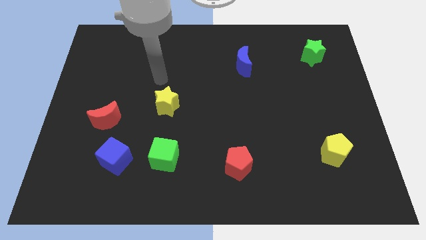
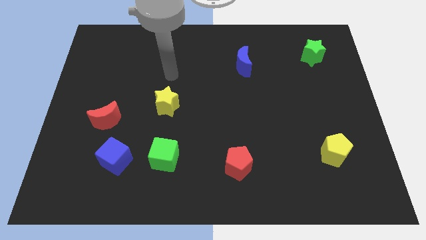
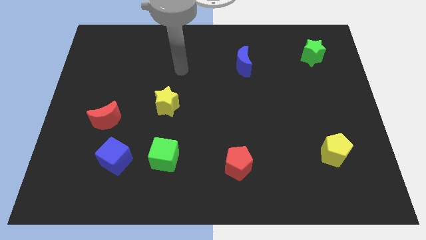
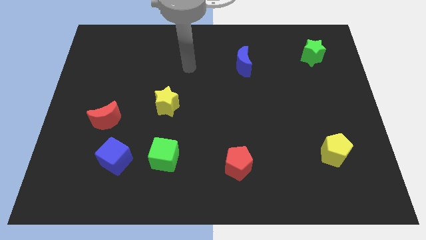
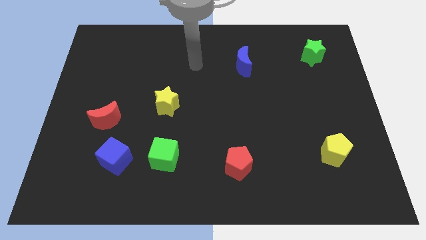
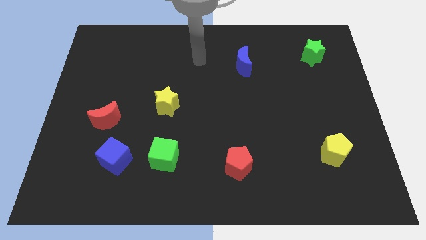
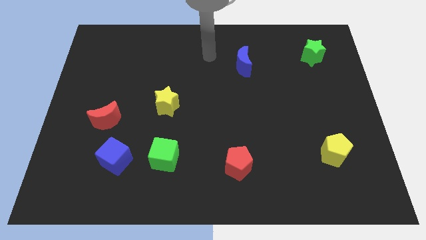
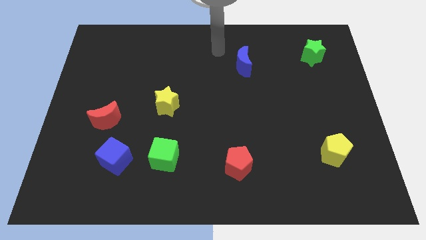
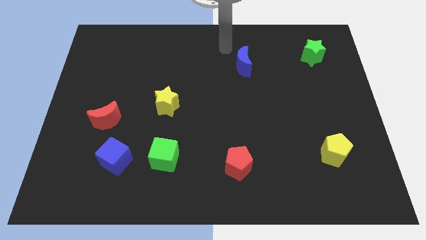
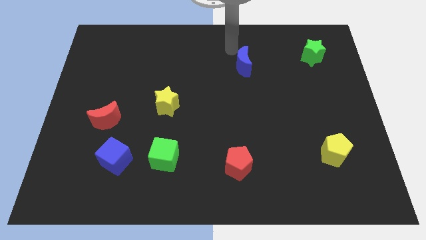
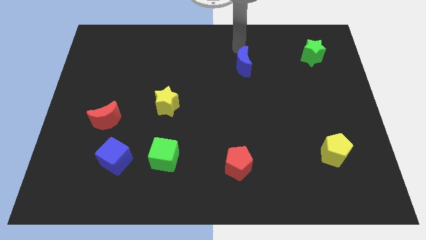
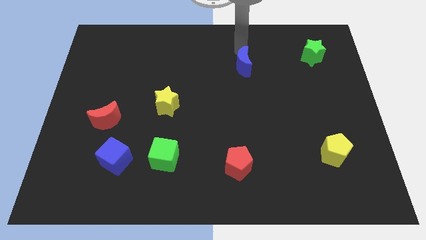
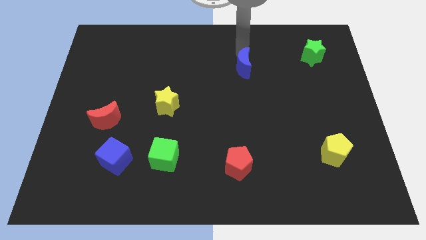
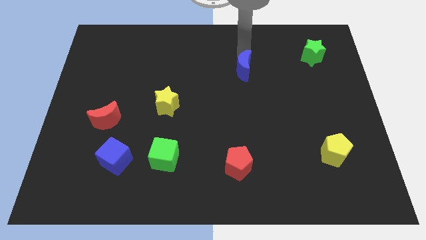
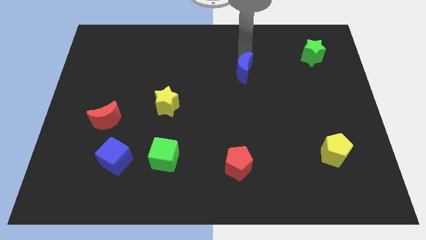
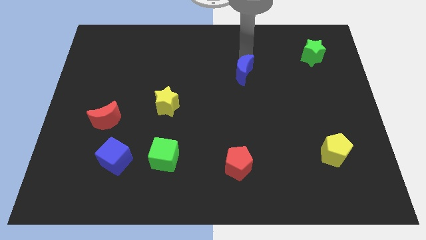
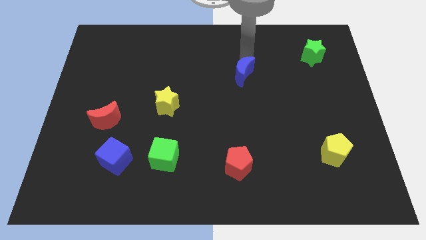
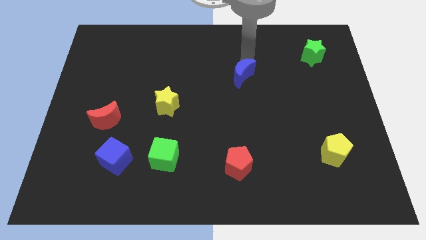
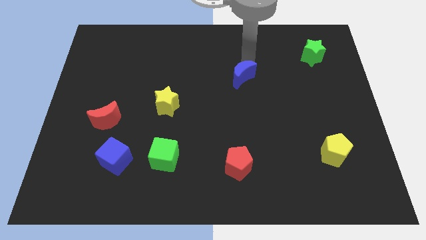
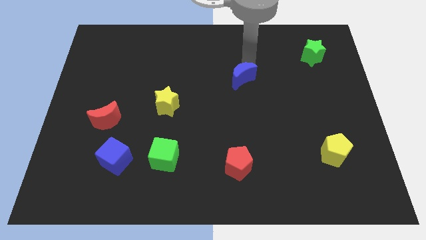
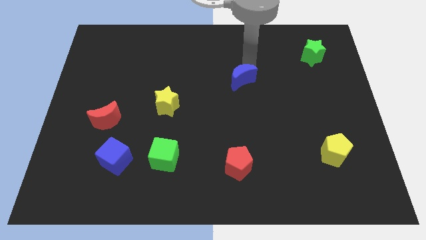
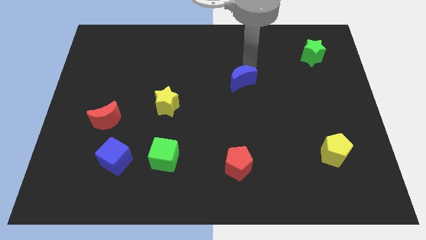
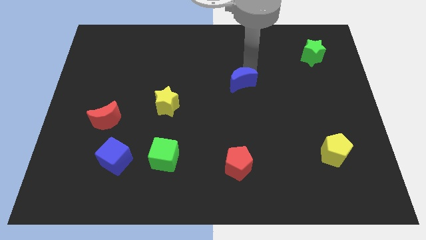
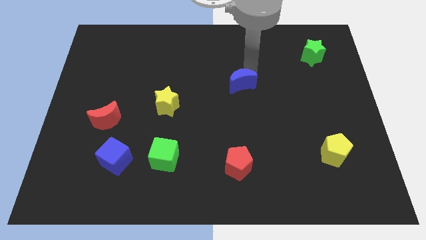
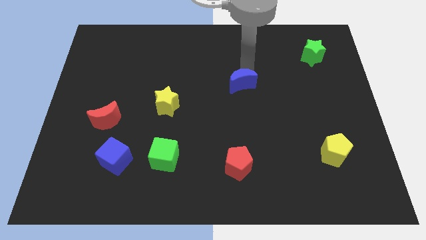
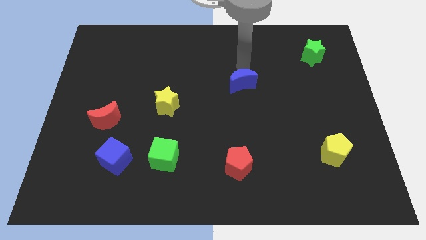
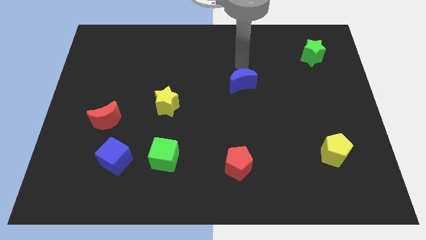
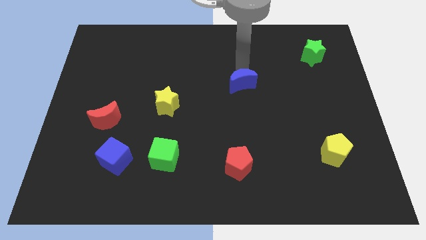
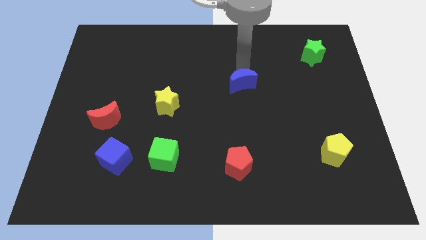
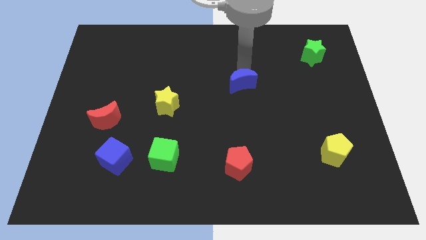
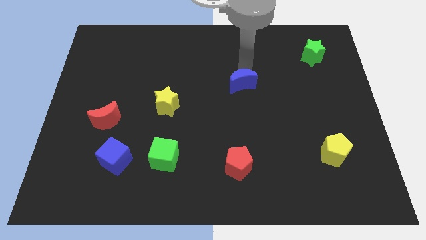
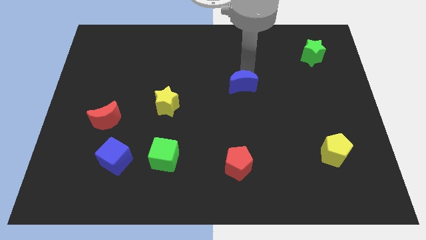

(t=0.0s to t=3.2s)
move the blue moon down somewhat

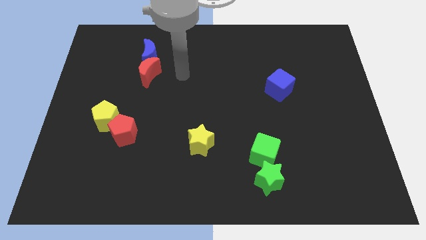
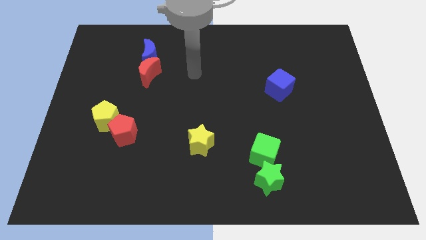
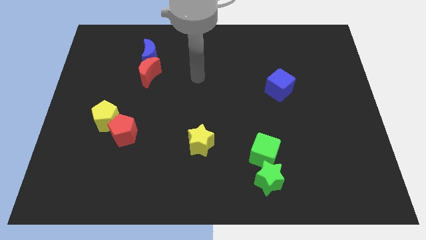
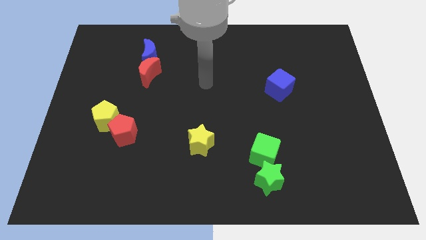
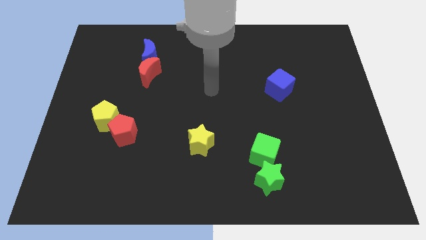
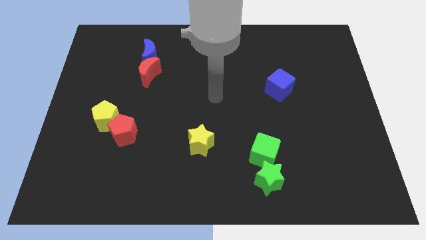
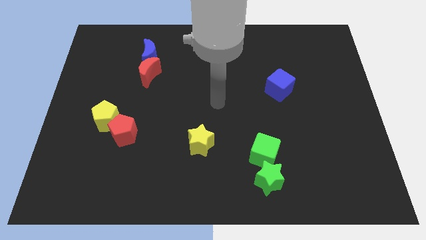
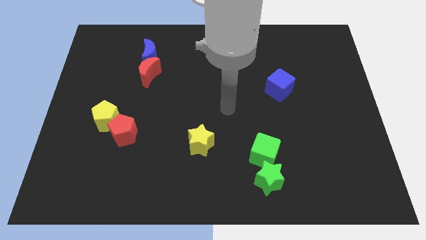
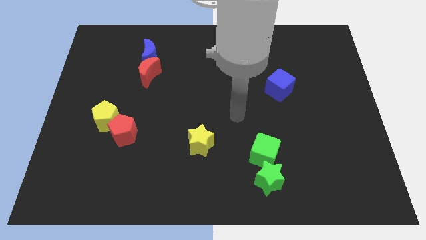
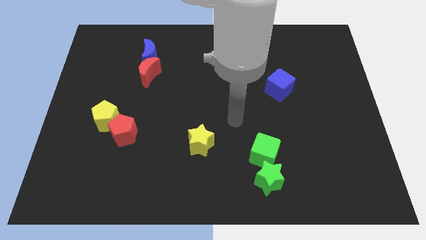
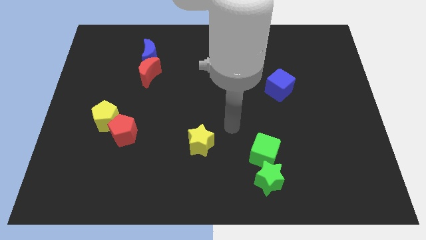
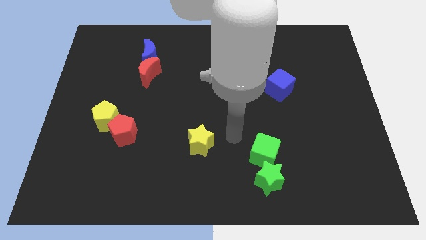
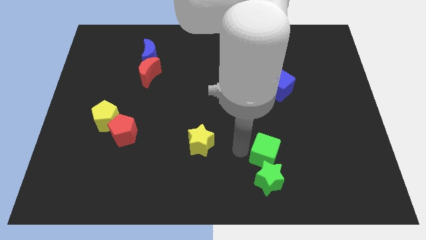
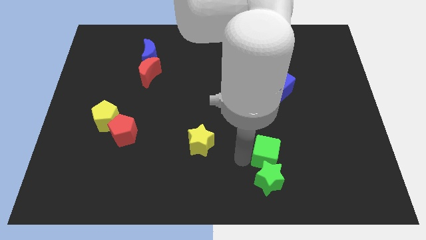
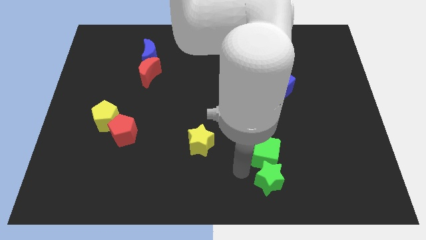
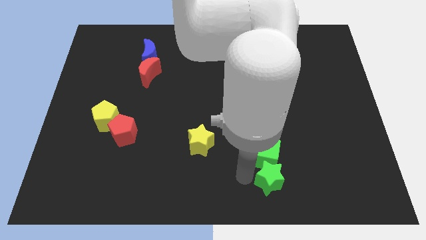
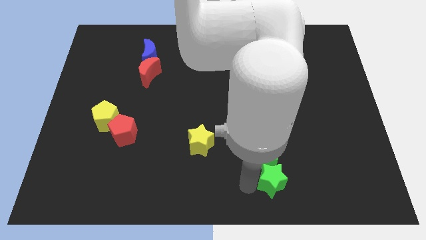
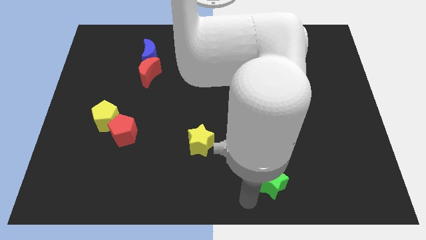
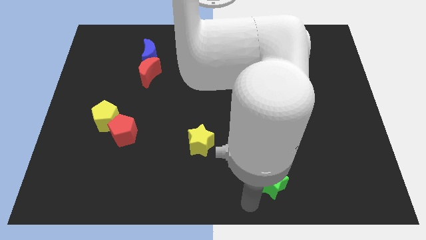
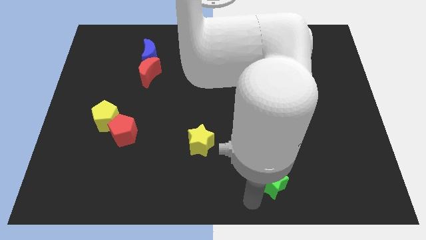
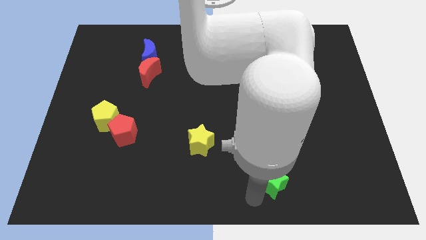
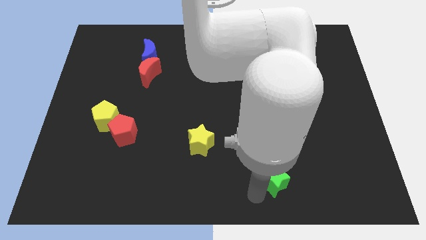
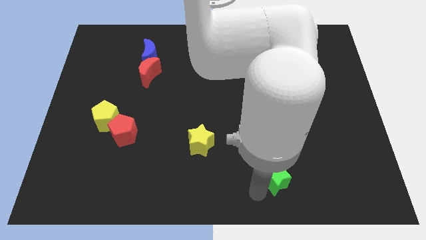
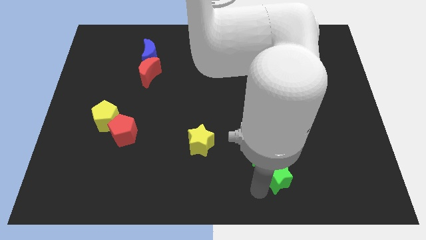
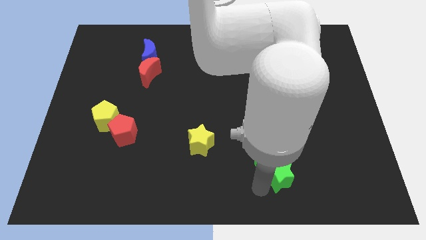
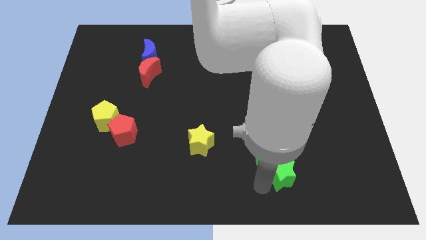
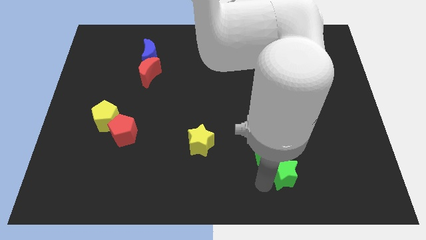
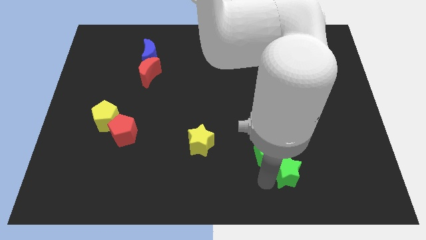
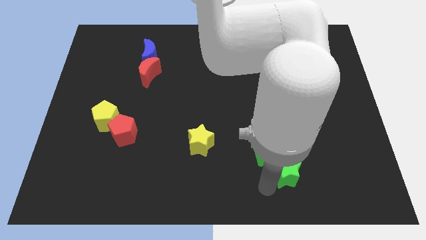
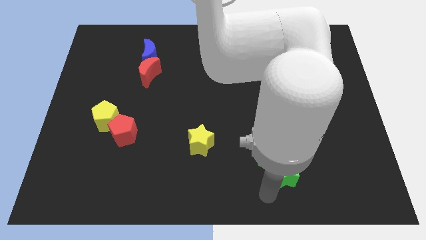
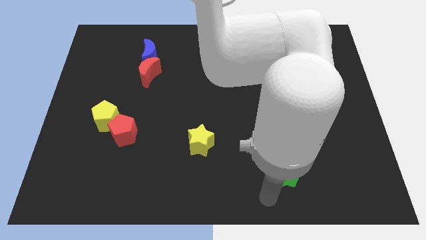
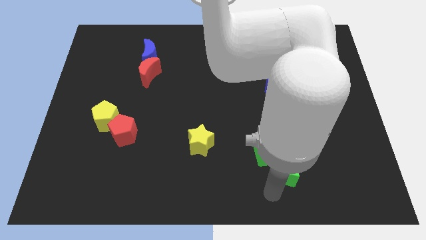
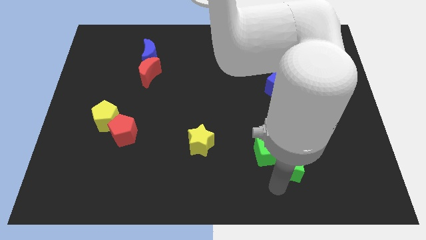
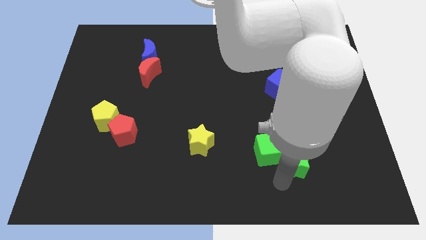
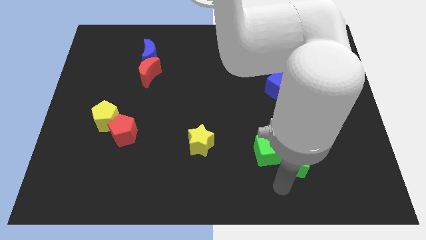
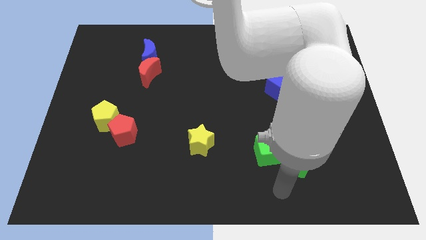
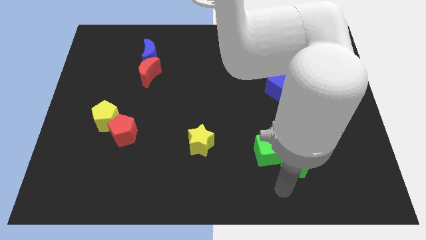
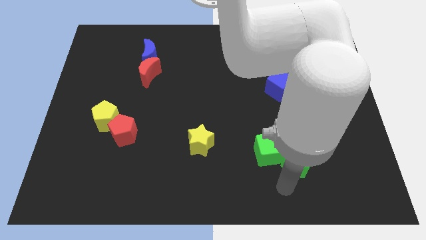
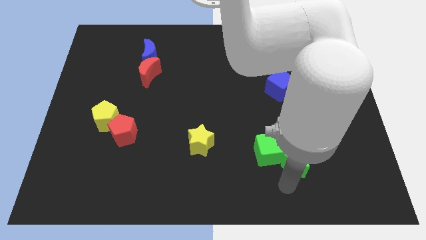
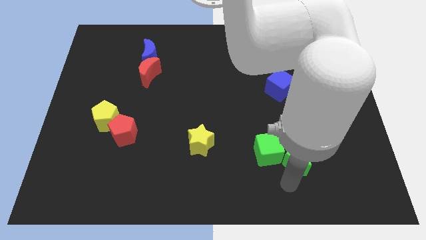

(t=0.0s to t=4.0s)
slightly move the green star up and to the right

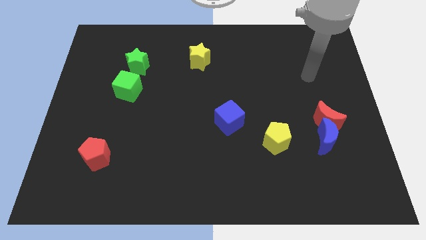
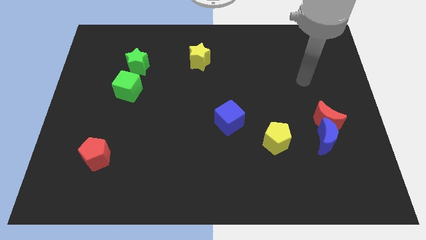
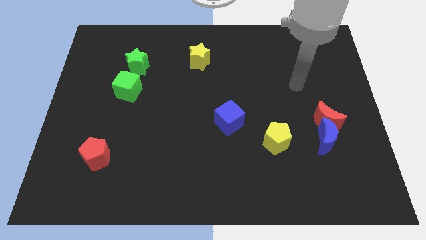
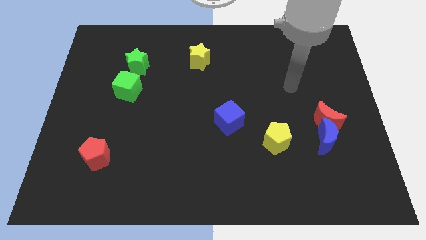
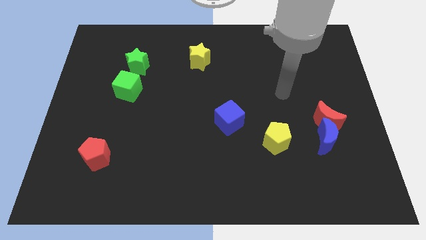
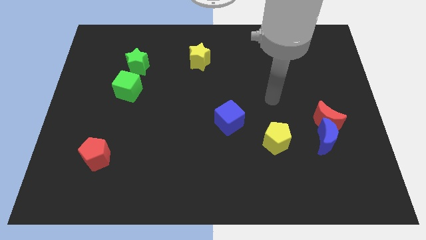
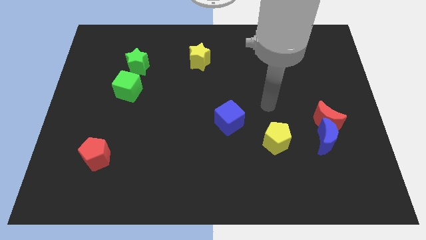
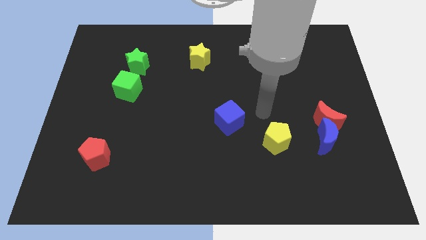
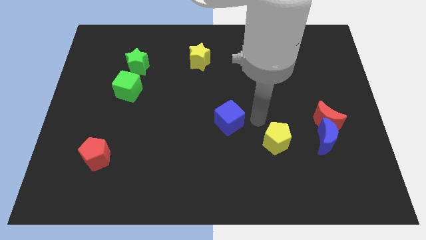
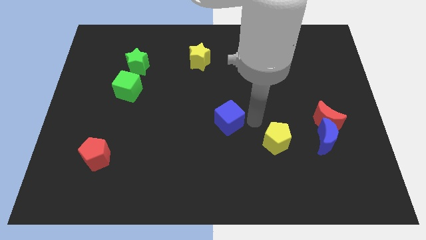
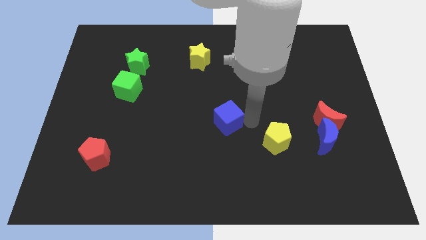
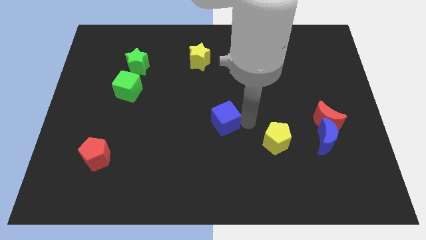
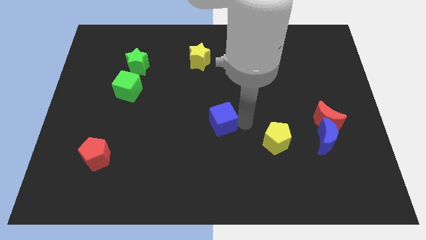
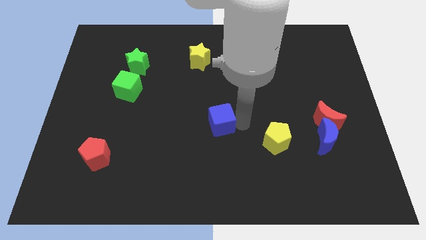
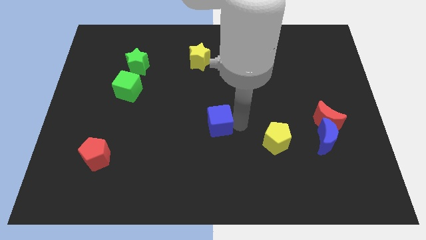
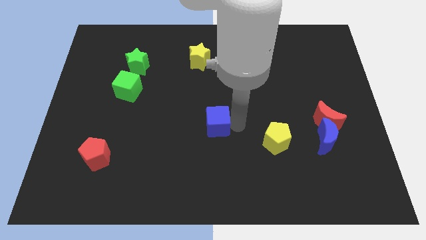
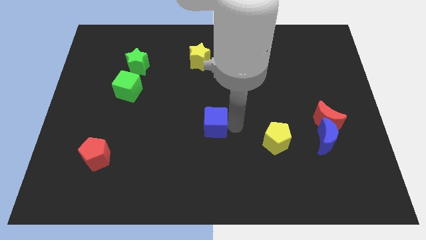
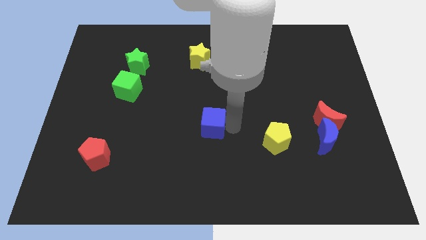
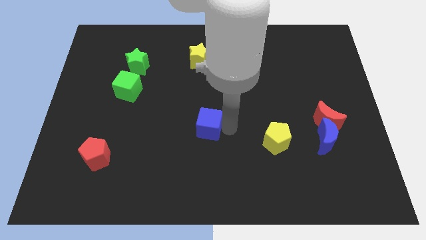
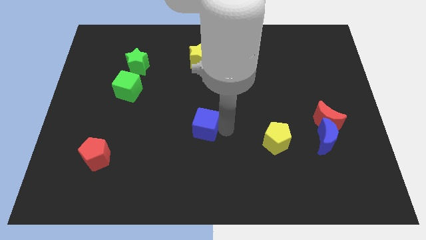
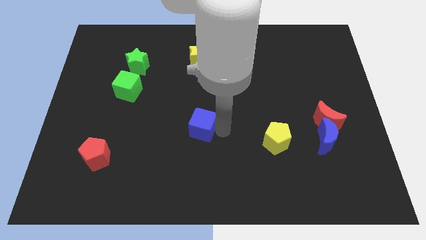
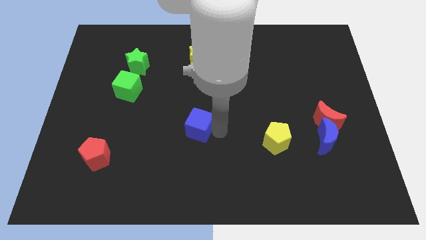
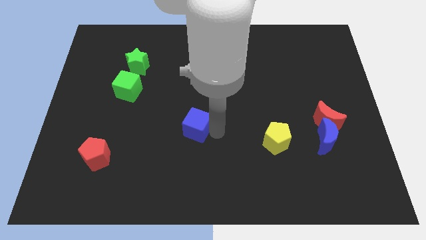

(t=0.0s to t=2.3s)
push the blue cube to the left somewhat
